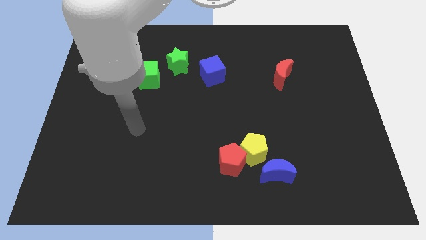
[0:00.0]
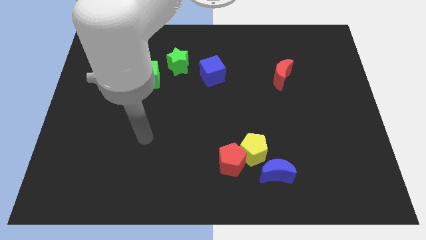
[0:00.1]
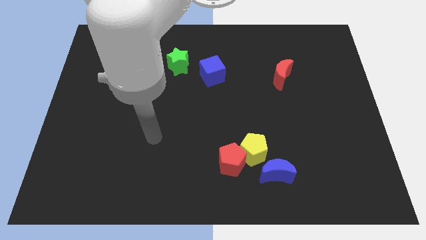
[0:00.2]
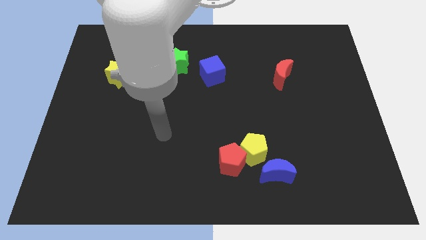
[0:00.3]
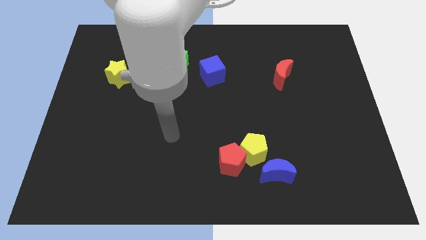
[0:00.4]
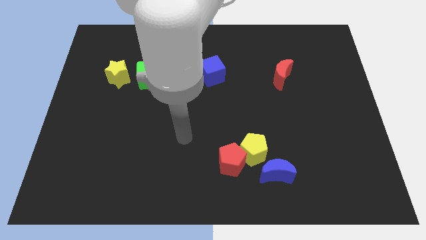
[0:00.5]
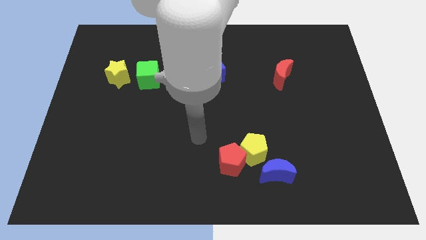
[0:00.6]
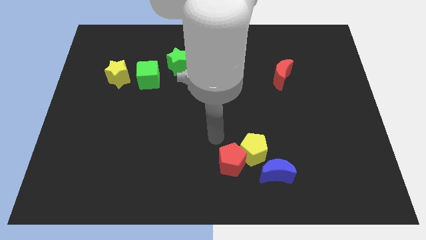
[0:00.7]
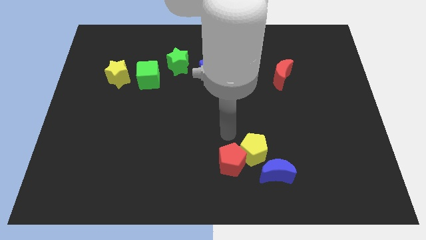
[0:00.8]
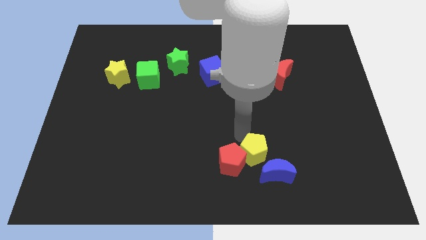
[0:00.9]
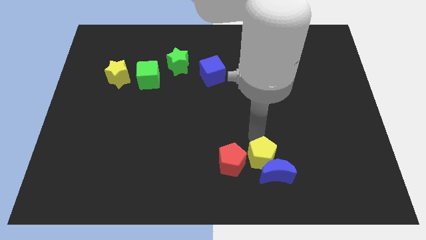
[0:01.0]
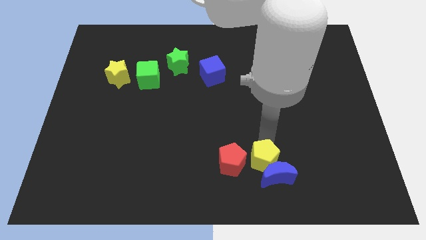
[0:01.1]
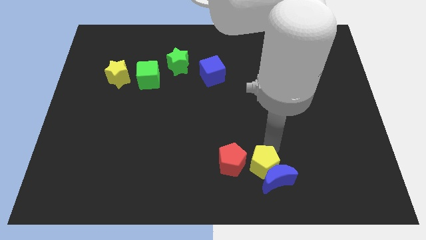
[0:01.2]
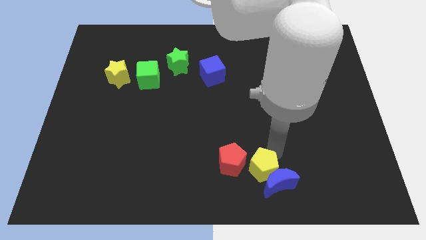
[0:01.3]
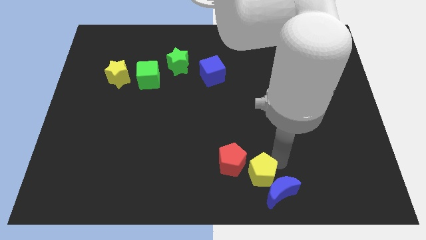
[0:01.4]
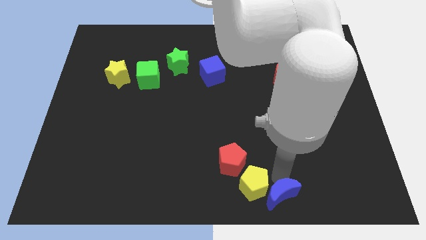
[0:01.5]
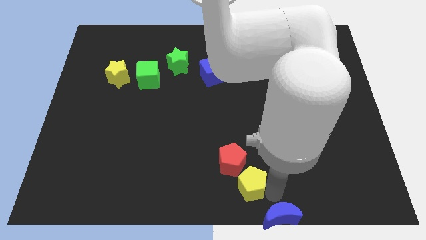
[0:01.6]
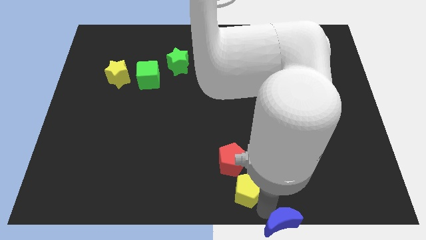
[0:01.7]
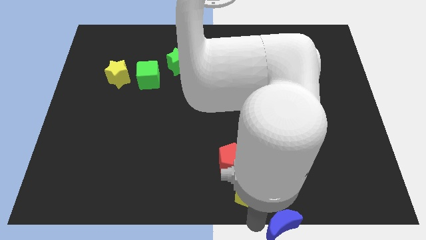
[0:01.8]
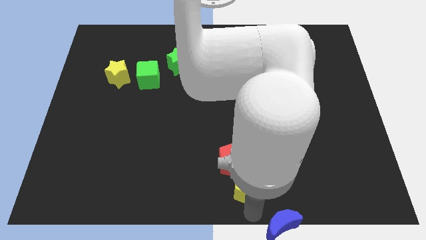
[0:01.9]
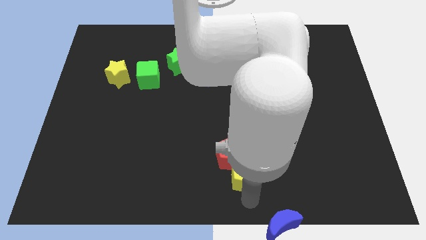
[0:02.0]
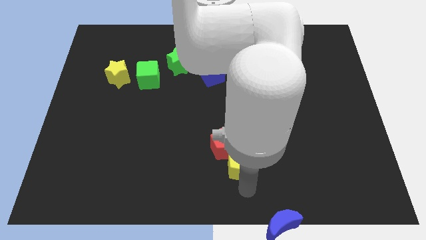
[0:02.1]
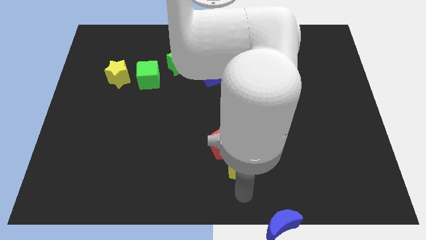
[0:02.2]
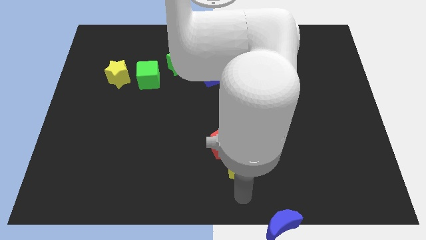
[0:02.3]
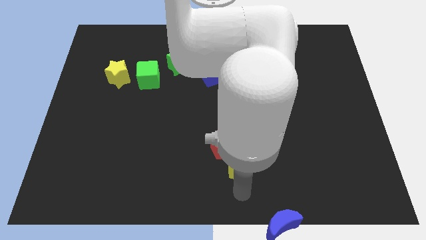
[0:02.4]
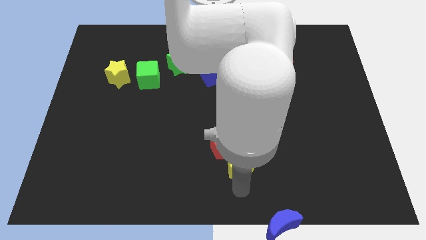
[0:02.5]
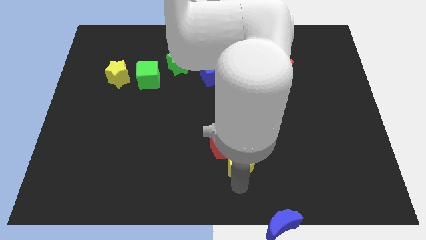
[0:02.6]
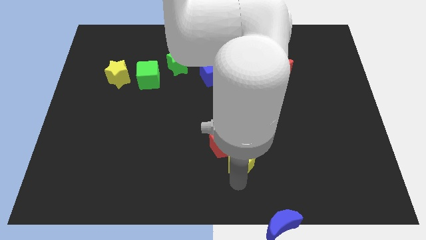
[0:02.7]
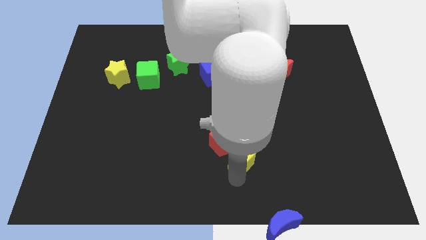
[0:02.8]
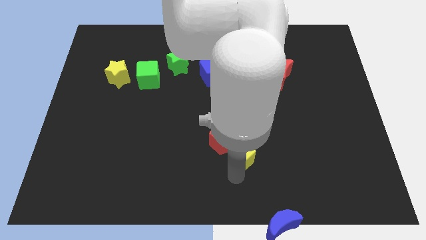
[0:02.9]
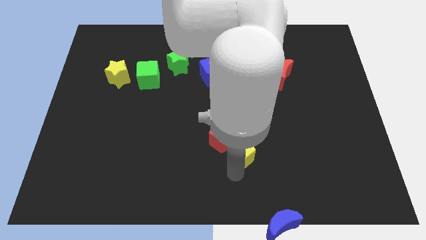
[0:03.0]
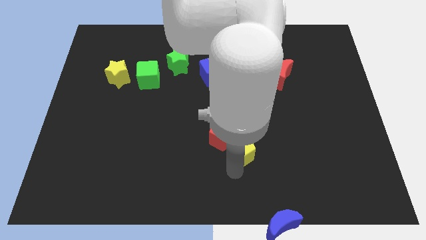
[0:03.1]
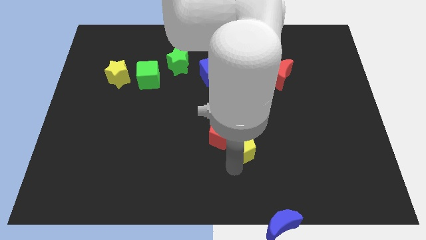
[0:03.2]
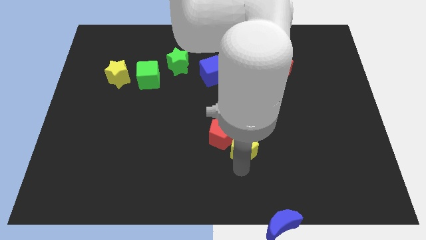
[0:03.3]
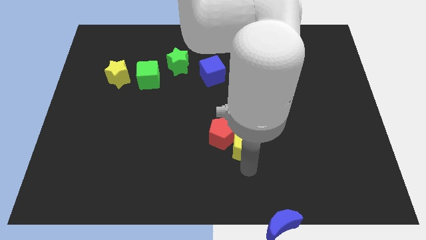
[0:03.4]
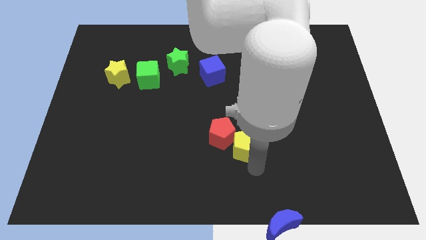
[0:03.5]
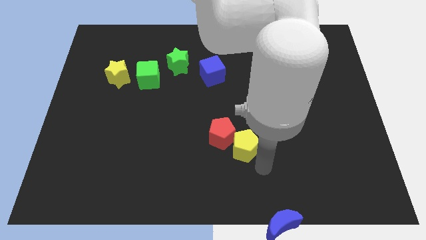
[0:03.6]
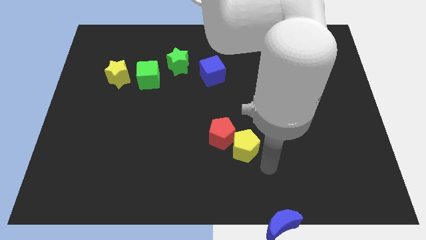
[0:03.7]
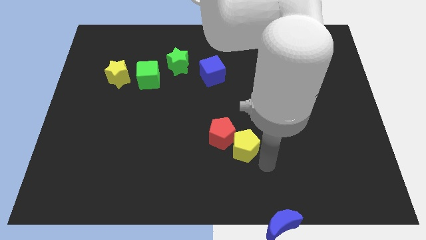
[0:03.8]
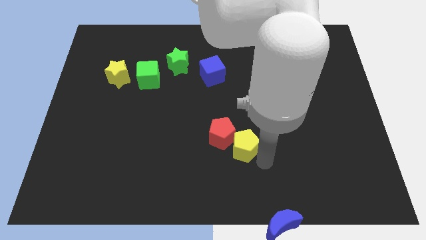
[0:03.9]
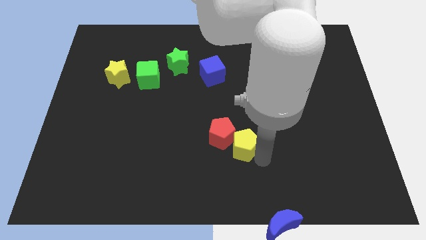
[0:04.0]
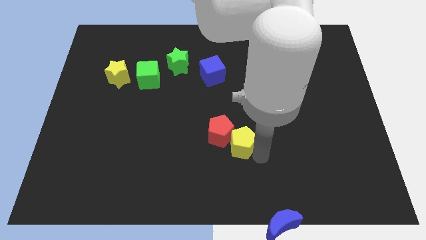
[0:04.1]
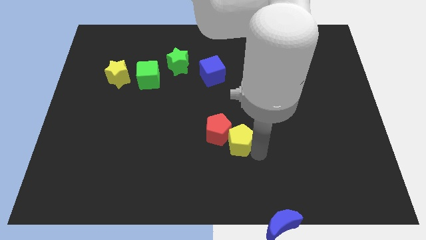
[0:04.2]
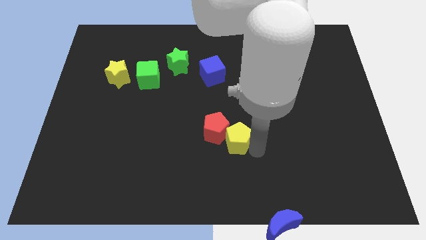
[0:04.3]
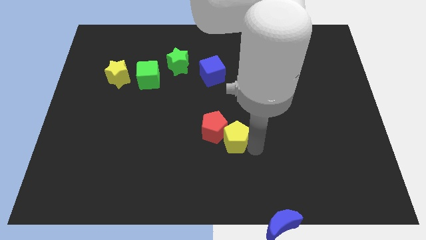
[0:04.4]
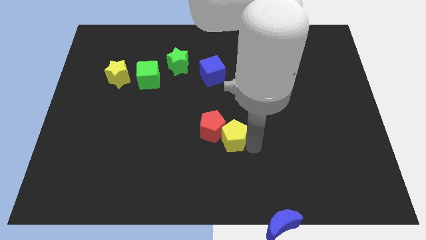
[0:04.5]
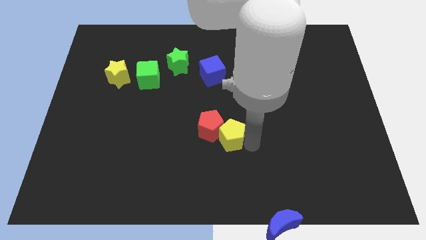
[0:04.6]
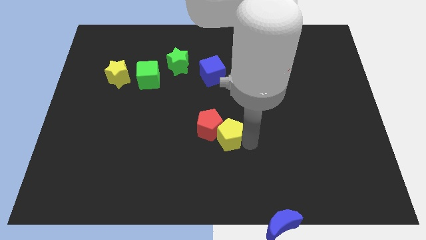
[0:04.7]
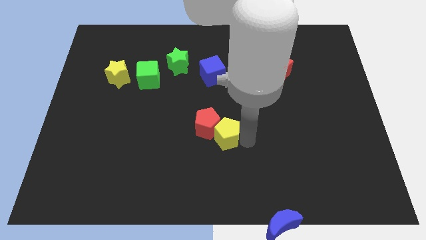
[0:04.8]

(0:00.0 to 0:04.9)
slightly push the yellow pentagon up and to the left diagonally

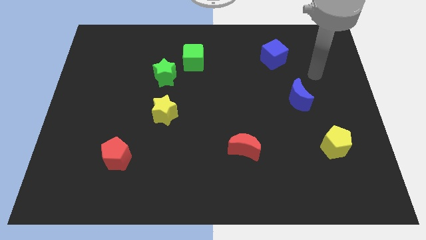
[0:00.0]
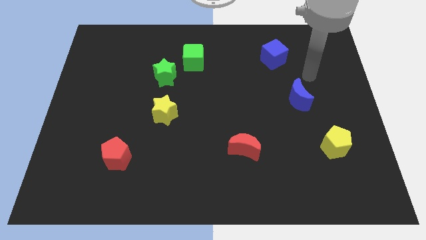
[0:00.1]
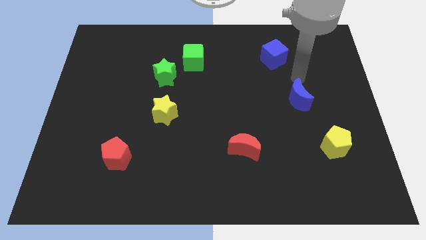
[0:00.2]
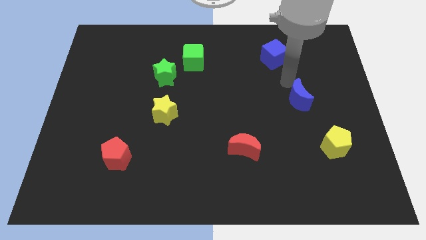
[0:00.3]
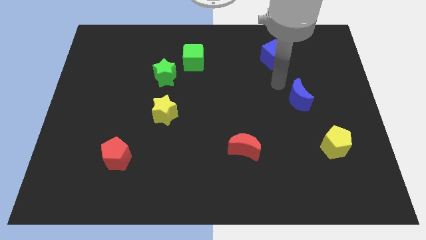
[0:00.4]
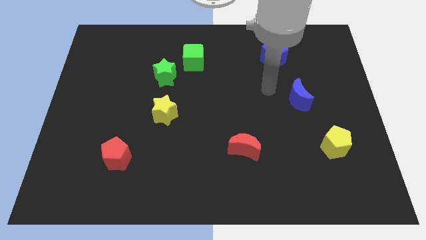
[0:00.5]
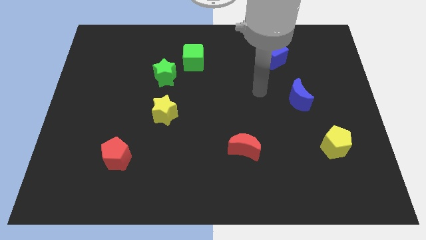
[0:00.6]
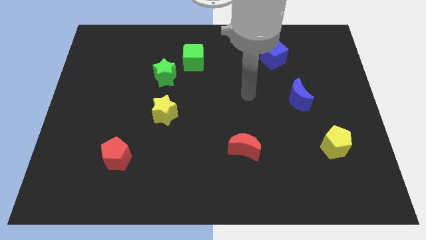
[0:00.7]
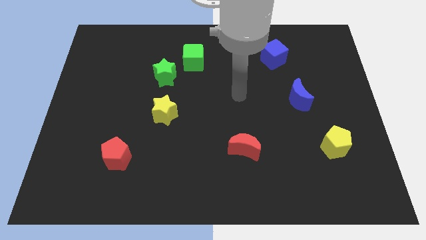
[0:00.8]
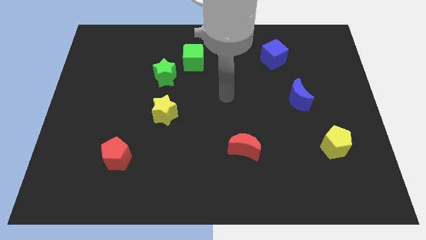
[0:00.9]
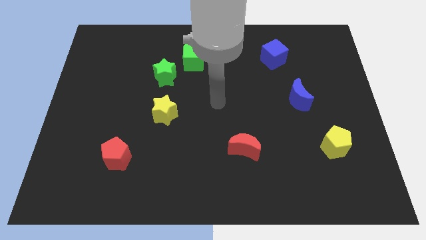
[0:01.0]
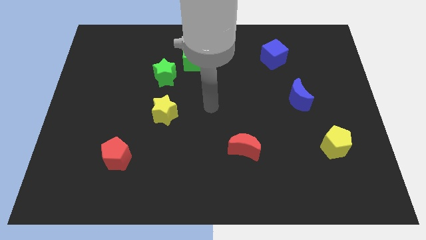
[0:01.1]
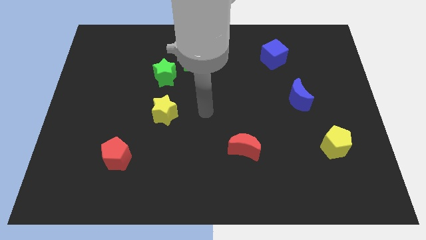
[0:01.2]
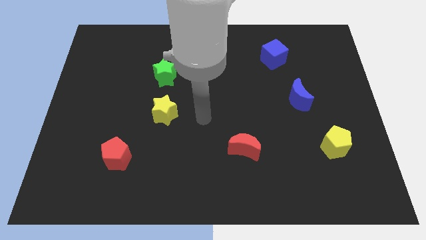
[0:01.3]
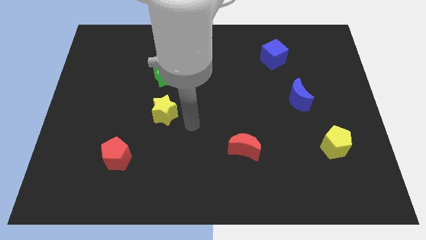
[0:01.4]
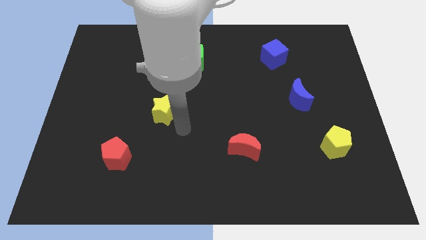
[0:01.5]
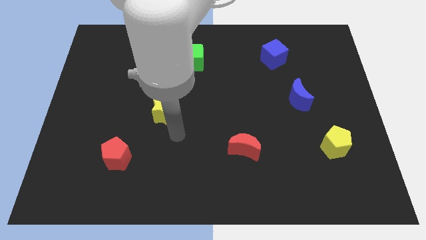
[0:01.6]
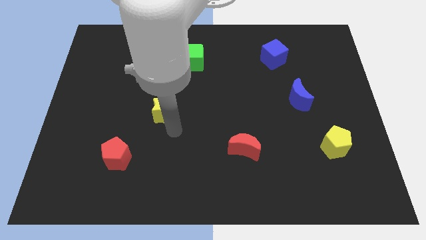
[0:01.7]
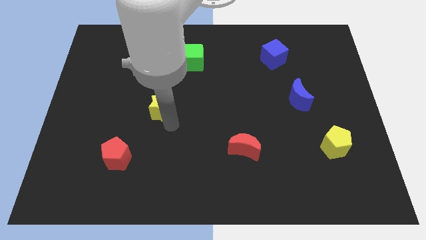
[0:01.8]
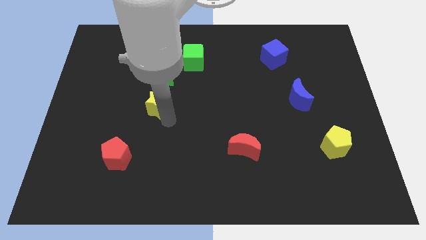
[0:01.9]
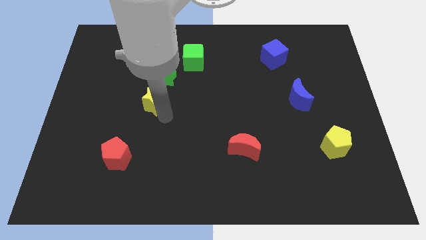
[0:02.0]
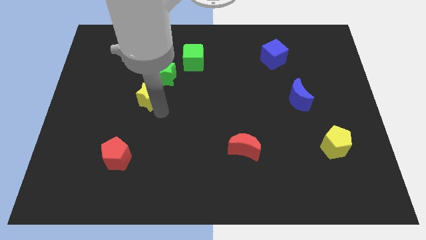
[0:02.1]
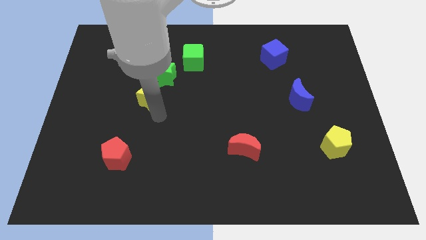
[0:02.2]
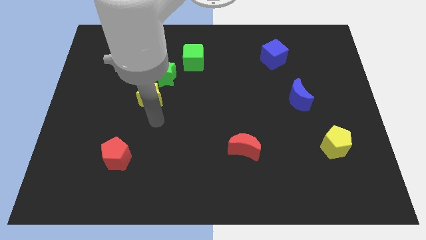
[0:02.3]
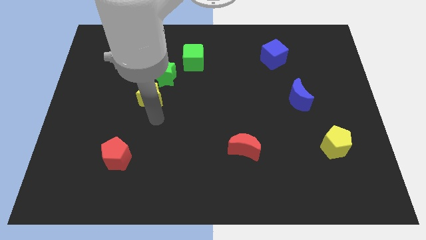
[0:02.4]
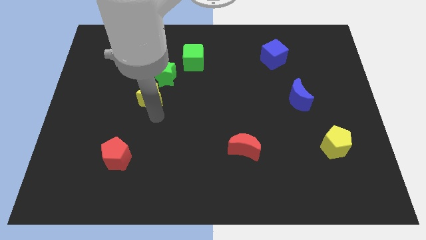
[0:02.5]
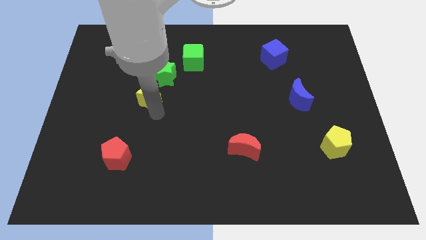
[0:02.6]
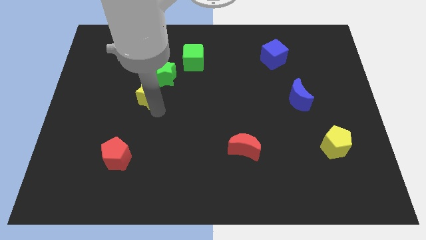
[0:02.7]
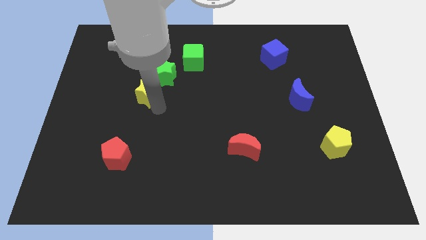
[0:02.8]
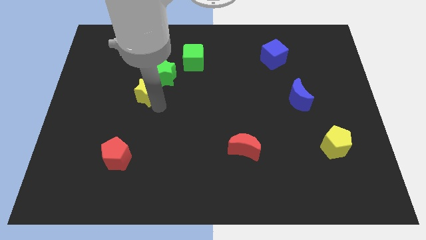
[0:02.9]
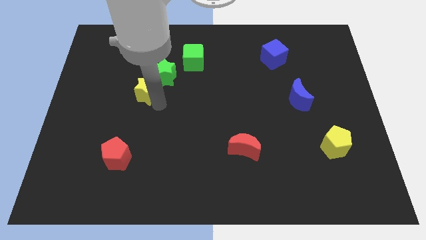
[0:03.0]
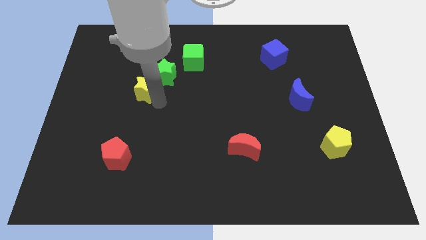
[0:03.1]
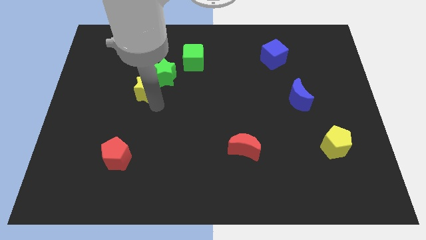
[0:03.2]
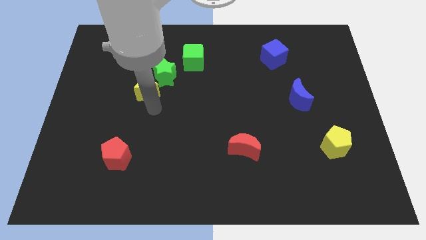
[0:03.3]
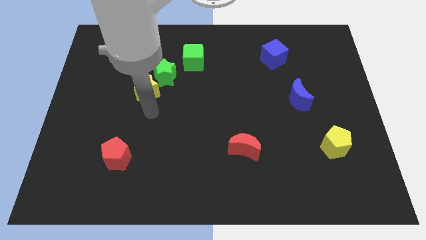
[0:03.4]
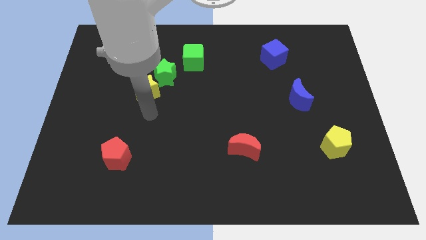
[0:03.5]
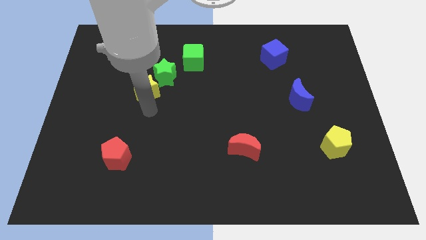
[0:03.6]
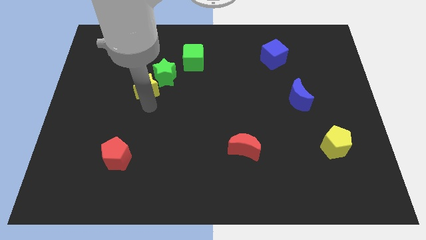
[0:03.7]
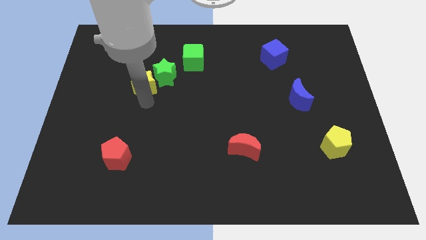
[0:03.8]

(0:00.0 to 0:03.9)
slide the yellow star a little bit up
